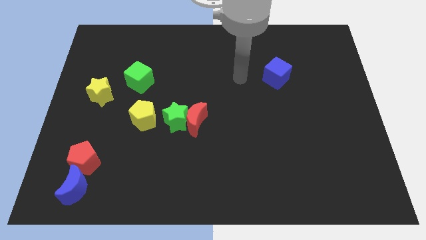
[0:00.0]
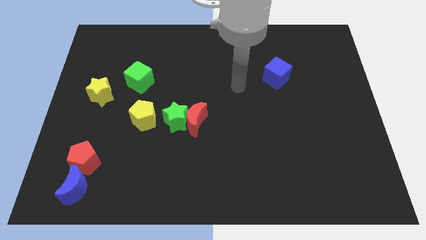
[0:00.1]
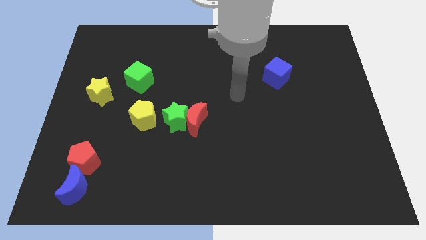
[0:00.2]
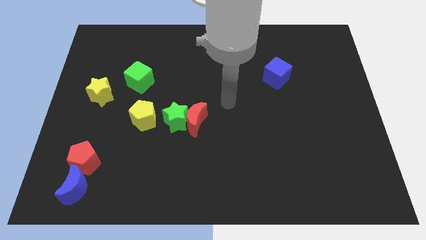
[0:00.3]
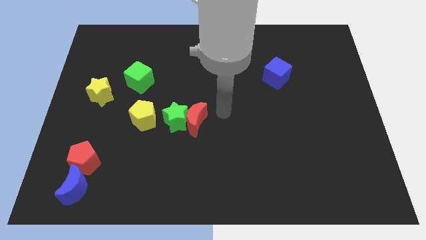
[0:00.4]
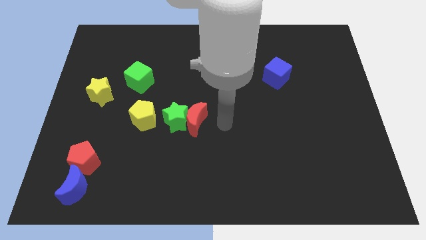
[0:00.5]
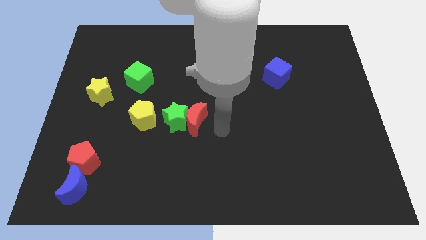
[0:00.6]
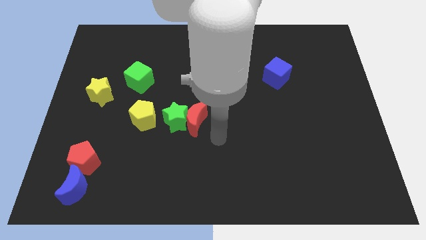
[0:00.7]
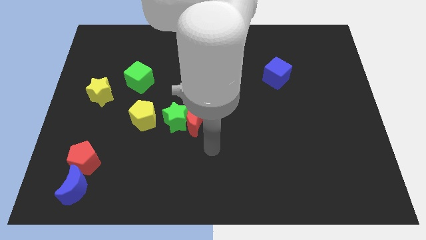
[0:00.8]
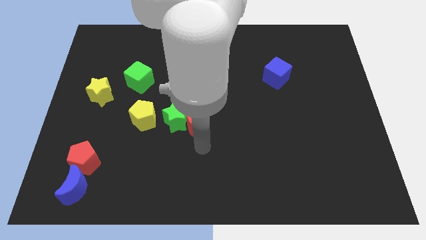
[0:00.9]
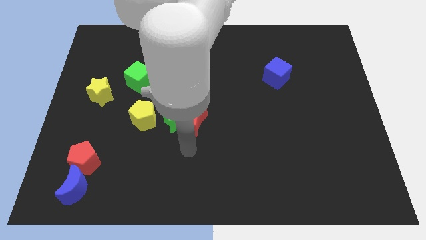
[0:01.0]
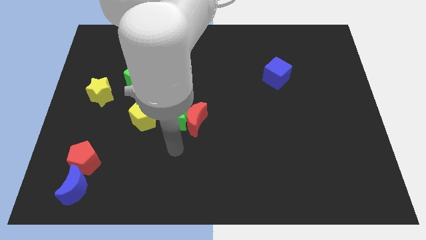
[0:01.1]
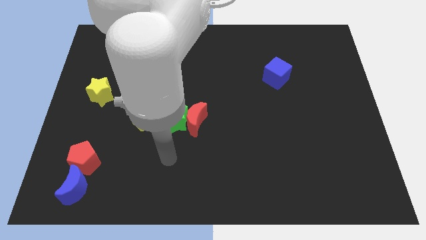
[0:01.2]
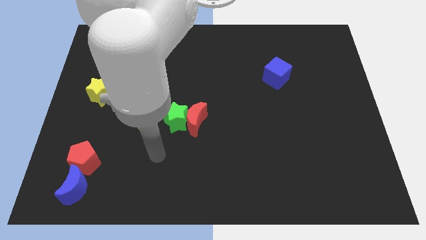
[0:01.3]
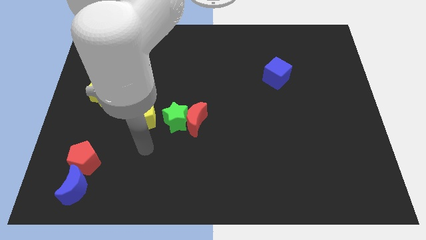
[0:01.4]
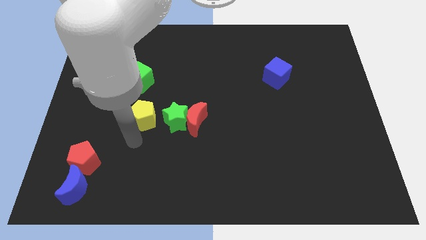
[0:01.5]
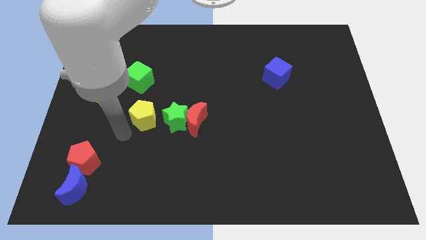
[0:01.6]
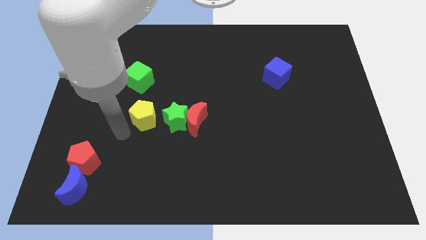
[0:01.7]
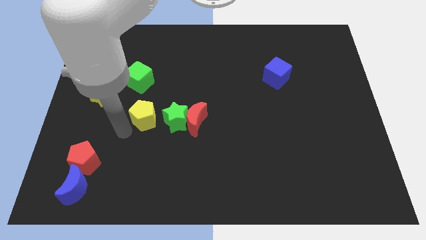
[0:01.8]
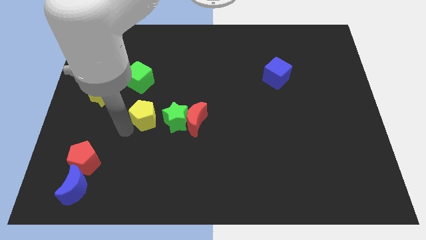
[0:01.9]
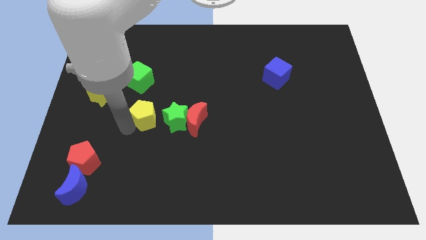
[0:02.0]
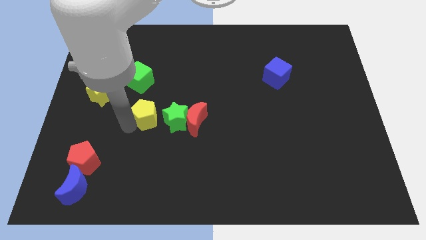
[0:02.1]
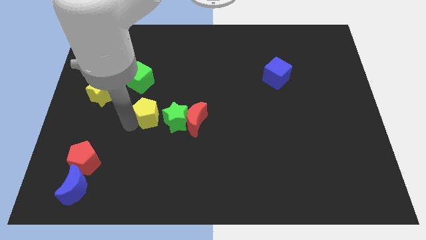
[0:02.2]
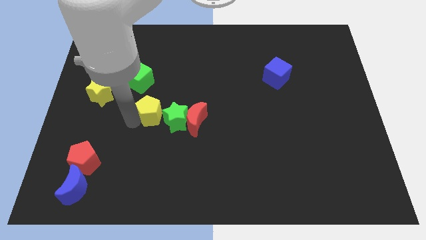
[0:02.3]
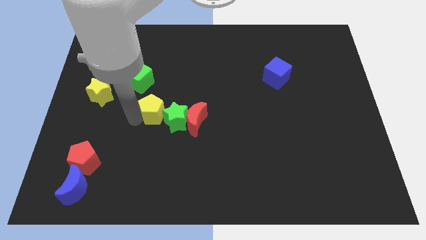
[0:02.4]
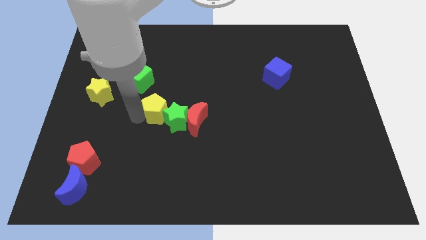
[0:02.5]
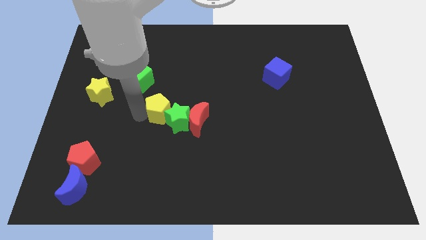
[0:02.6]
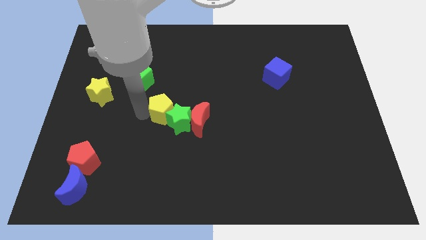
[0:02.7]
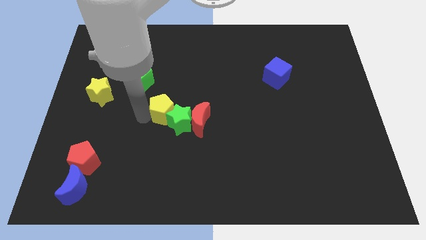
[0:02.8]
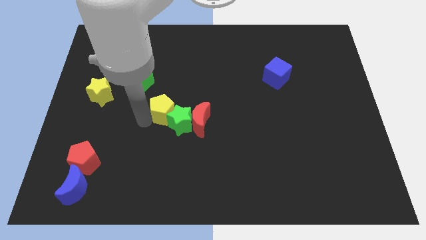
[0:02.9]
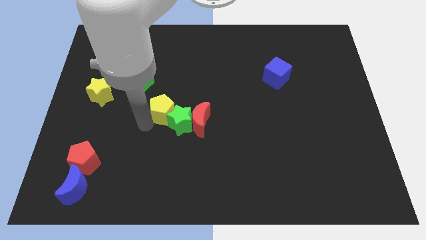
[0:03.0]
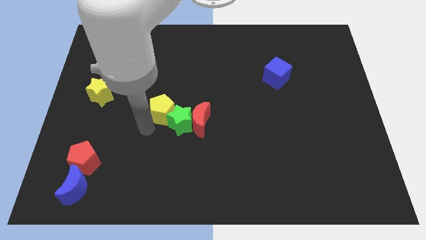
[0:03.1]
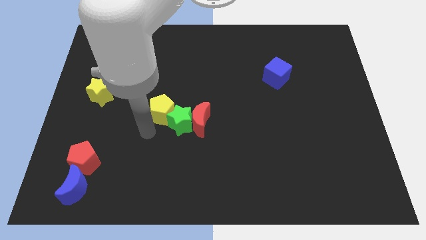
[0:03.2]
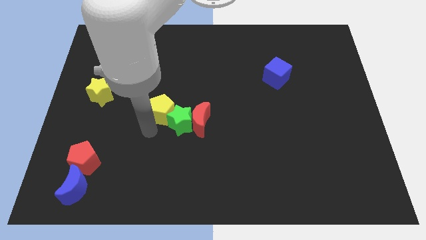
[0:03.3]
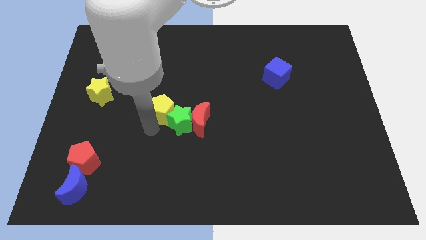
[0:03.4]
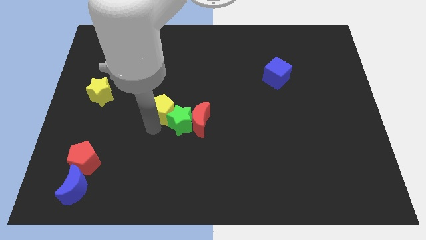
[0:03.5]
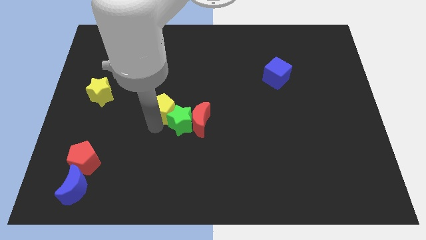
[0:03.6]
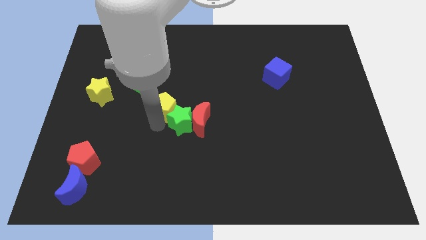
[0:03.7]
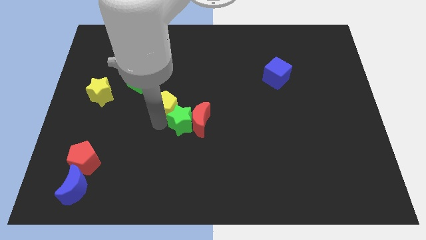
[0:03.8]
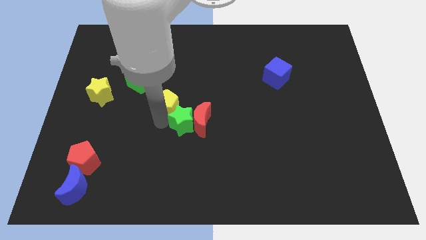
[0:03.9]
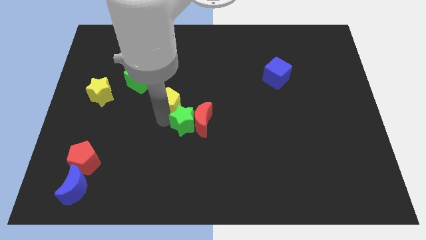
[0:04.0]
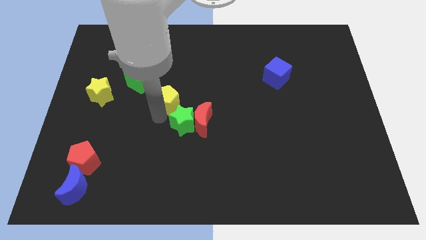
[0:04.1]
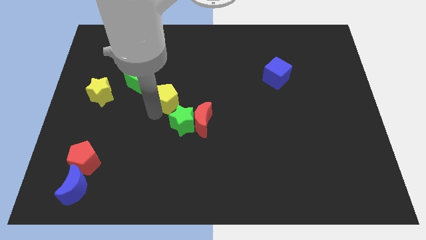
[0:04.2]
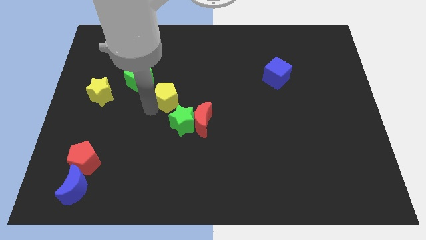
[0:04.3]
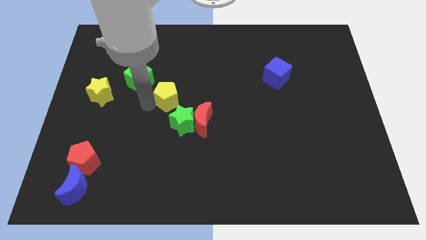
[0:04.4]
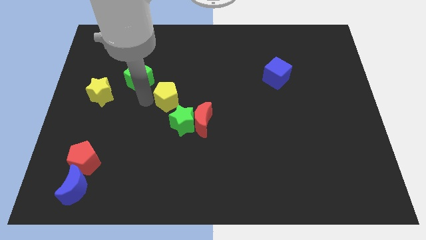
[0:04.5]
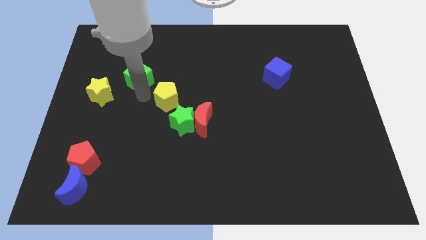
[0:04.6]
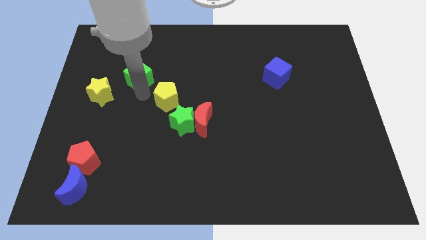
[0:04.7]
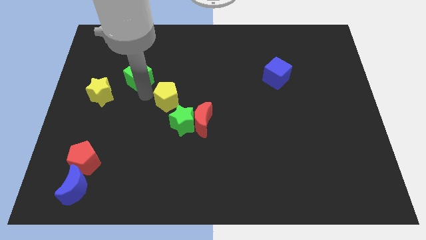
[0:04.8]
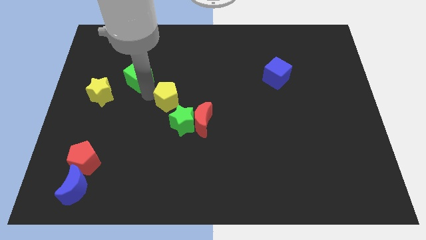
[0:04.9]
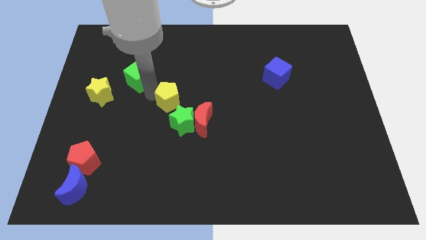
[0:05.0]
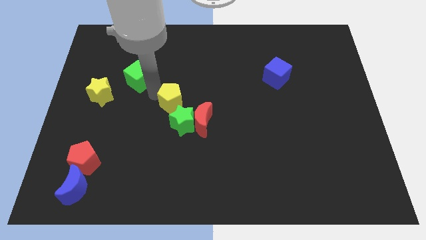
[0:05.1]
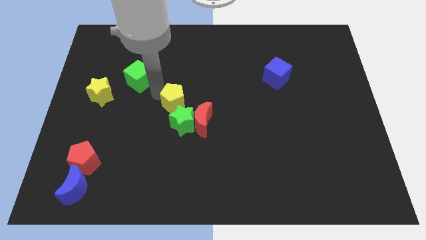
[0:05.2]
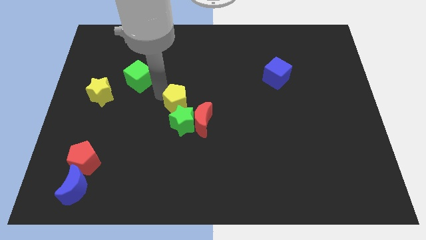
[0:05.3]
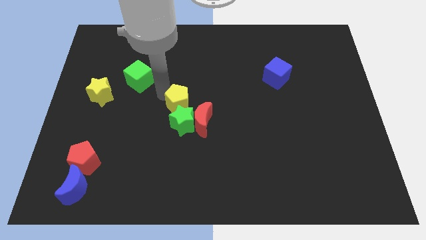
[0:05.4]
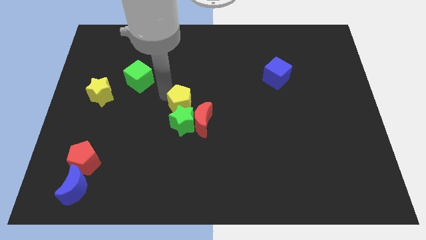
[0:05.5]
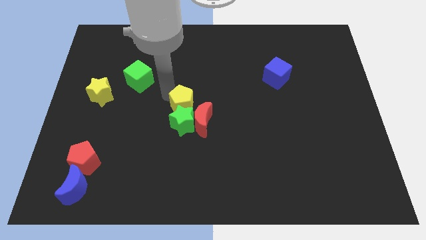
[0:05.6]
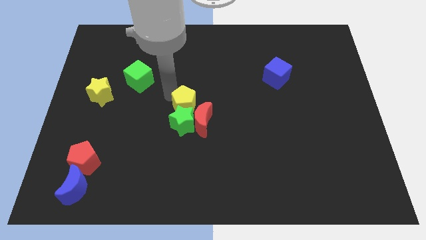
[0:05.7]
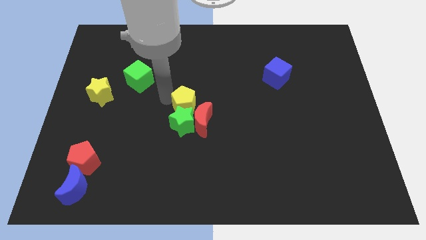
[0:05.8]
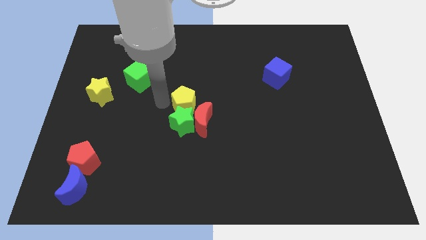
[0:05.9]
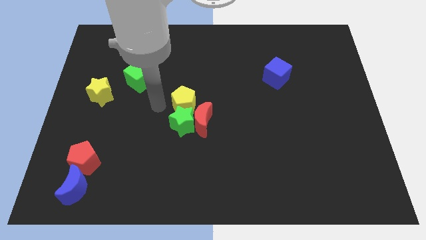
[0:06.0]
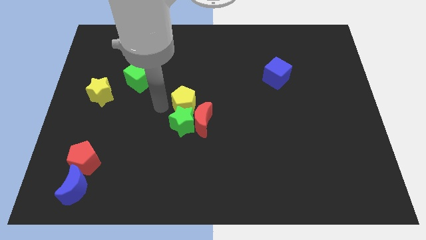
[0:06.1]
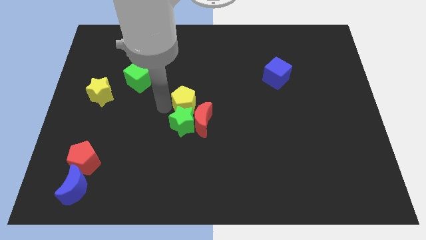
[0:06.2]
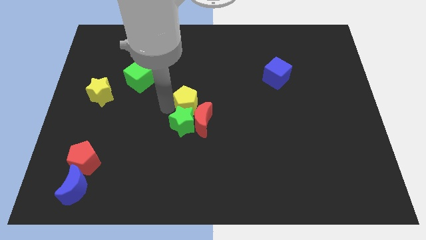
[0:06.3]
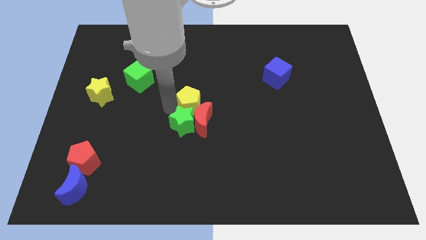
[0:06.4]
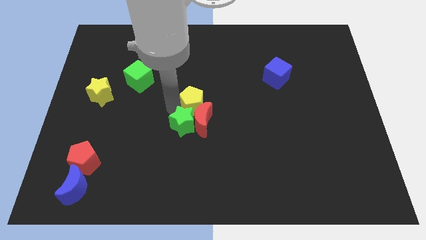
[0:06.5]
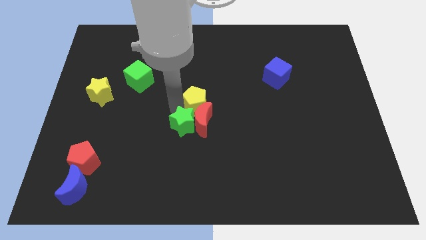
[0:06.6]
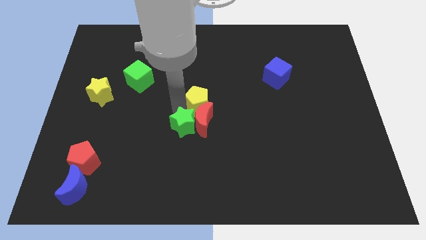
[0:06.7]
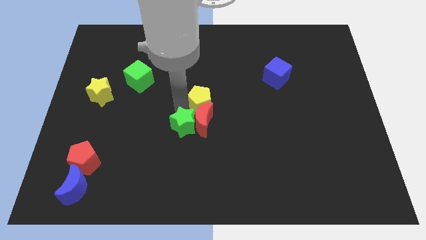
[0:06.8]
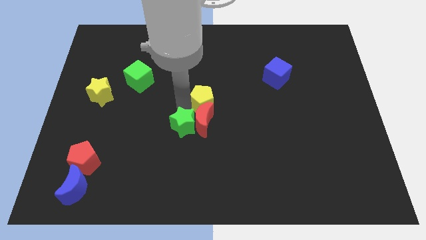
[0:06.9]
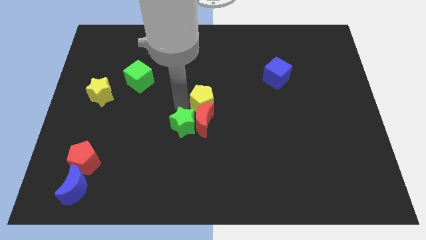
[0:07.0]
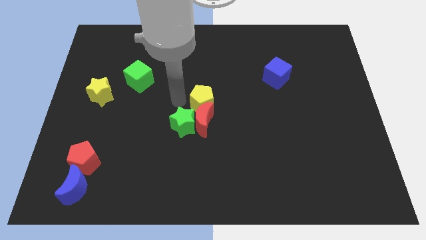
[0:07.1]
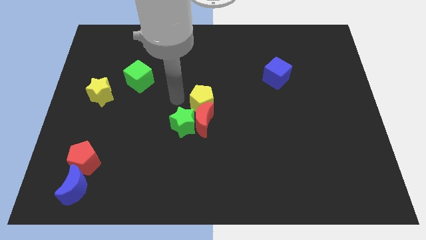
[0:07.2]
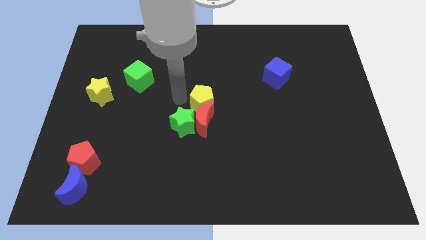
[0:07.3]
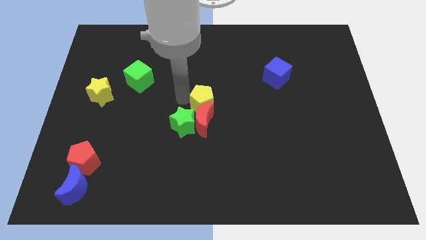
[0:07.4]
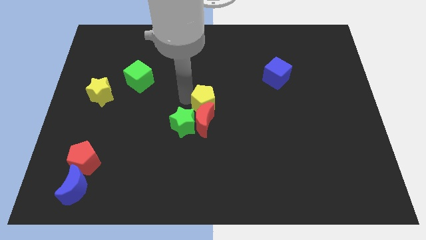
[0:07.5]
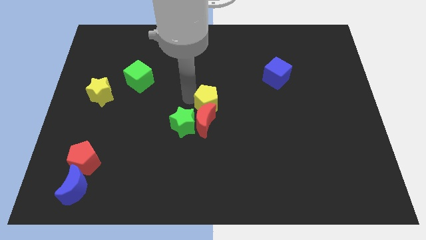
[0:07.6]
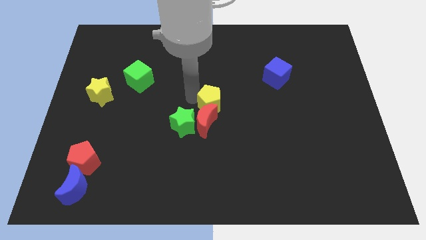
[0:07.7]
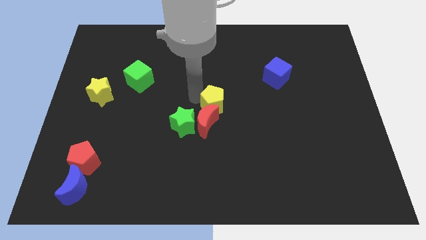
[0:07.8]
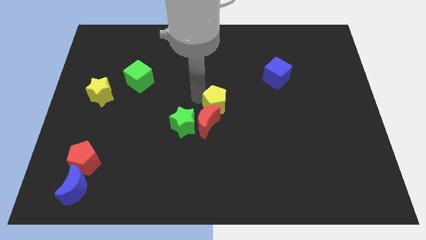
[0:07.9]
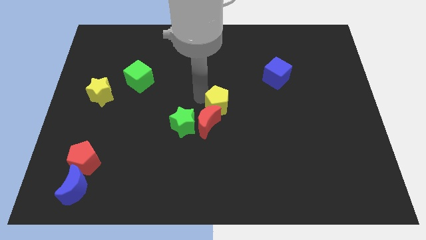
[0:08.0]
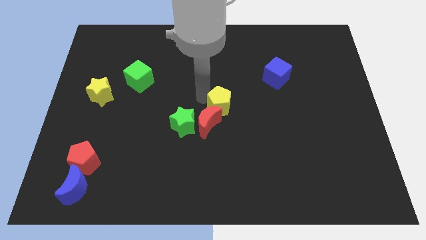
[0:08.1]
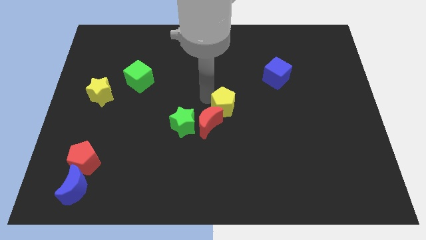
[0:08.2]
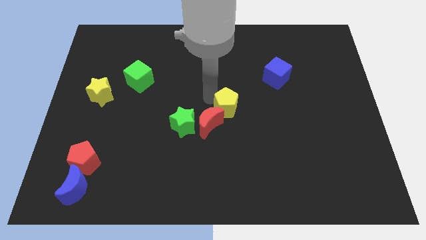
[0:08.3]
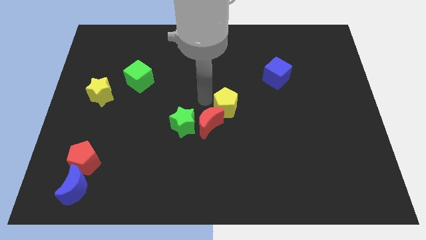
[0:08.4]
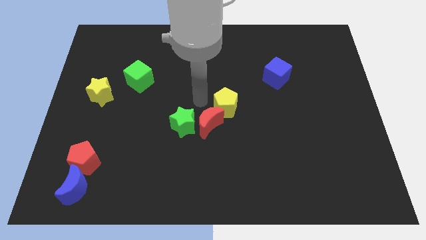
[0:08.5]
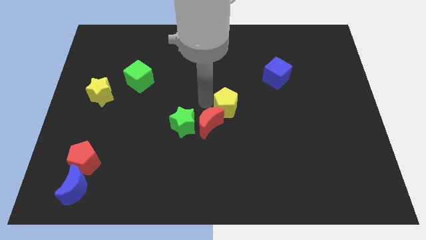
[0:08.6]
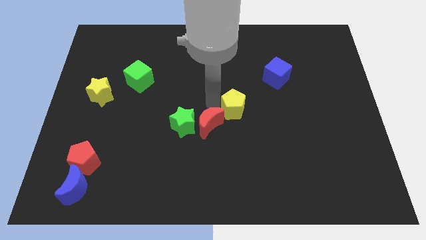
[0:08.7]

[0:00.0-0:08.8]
move the yellow pentagon right
